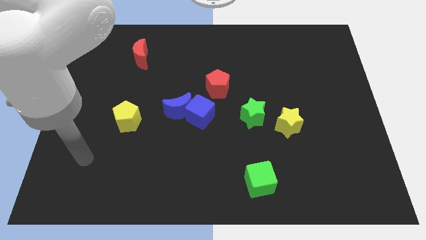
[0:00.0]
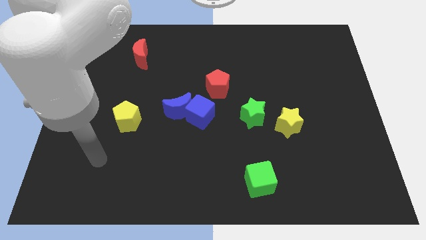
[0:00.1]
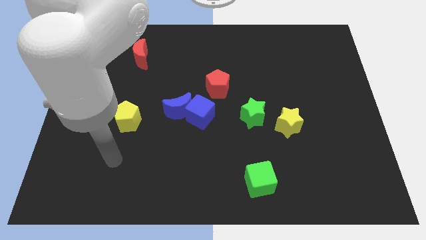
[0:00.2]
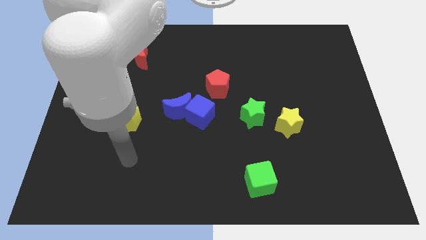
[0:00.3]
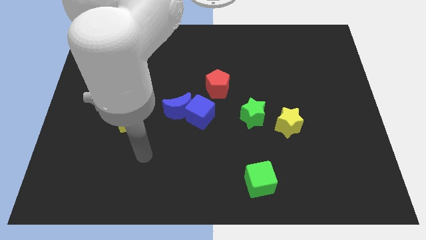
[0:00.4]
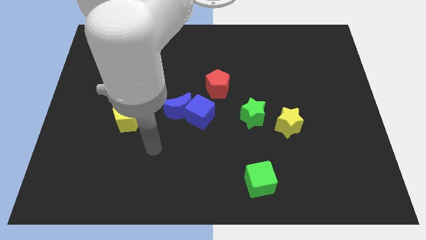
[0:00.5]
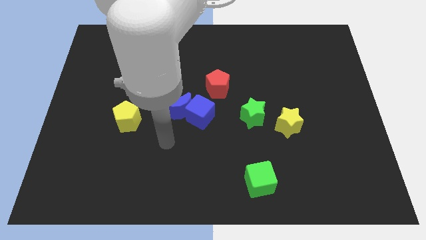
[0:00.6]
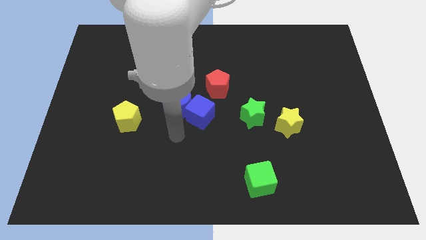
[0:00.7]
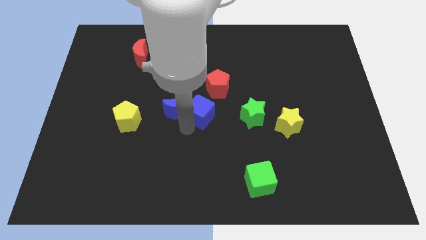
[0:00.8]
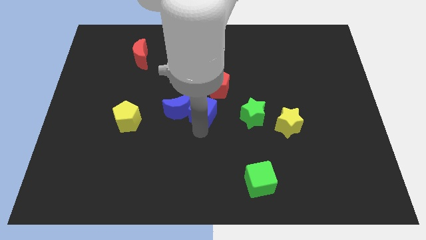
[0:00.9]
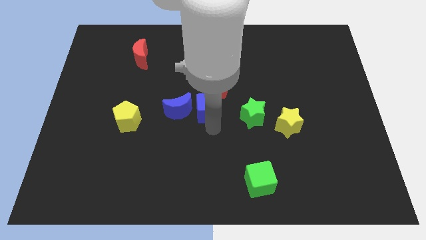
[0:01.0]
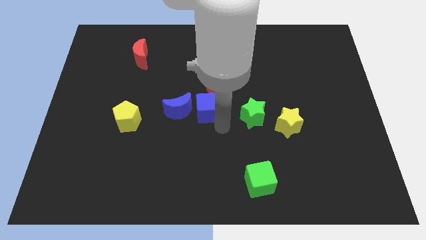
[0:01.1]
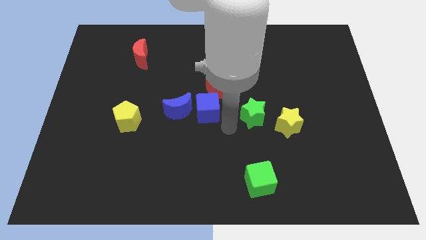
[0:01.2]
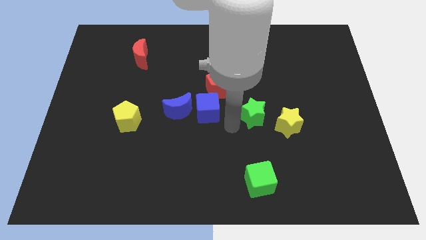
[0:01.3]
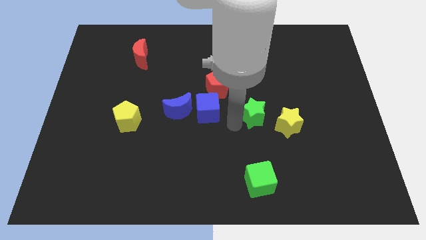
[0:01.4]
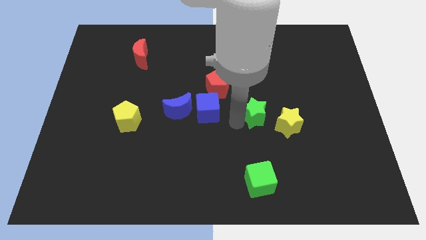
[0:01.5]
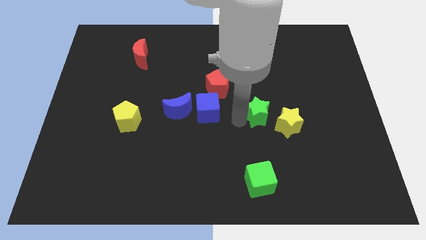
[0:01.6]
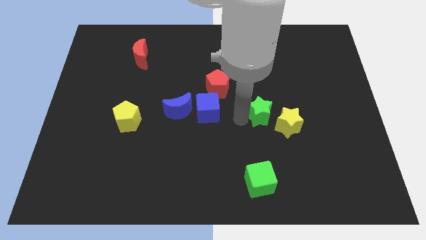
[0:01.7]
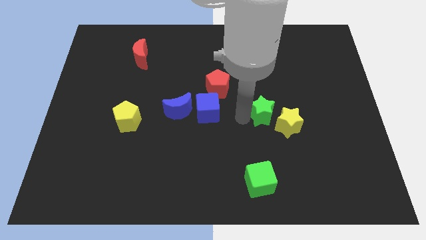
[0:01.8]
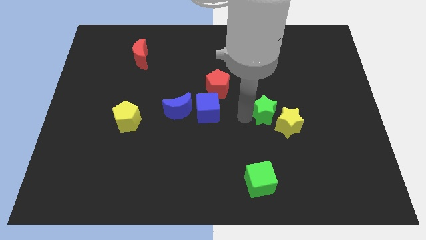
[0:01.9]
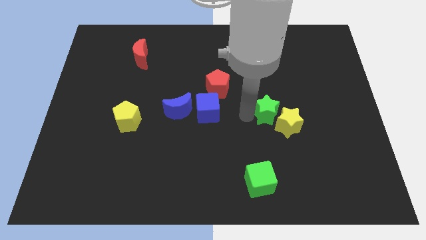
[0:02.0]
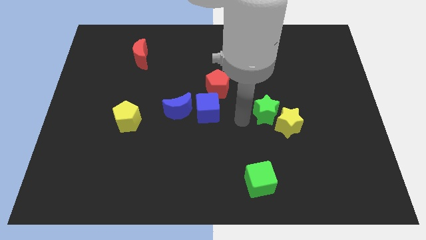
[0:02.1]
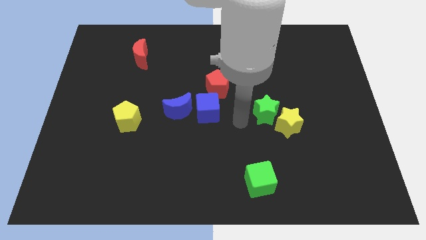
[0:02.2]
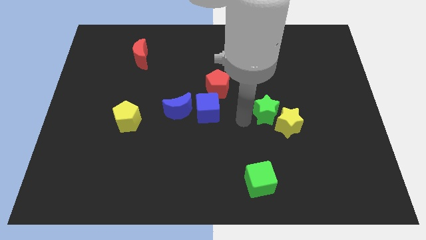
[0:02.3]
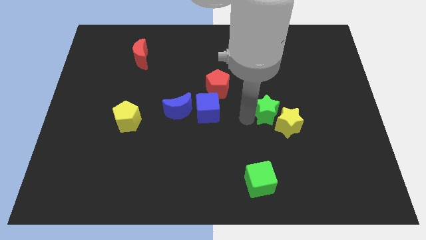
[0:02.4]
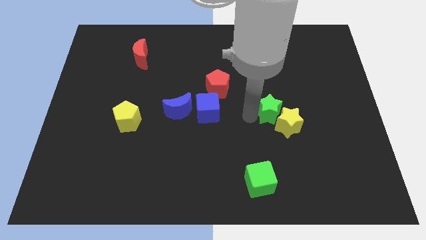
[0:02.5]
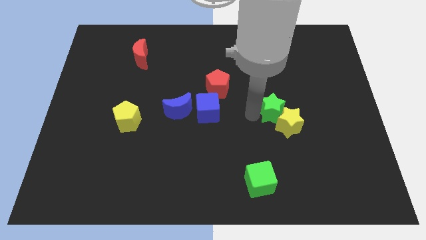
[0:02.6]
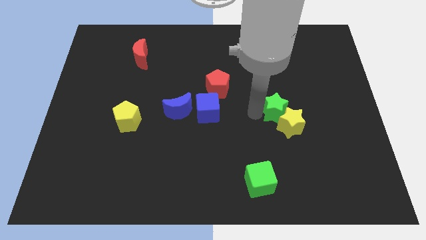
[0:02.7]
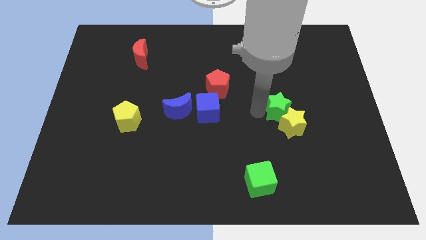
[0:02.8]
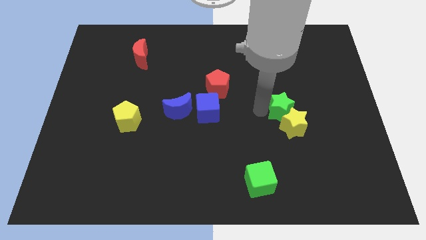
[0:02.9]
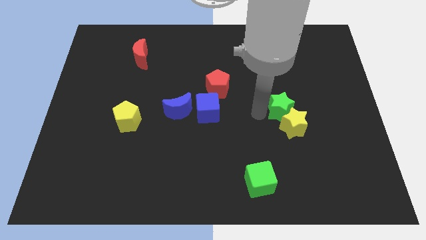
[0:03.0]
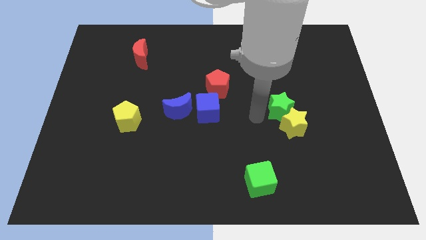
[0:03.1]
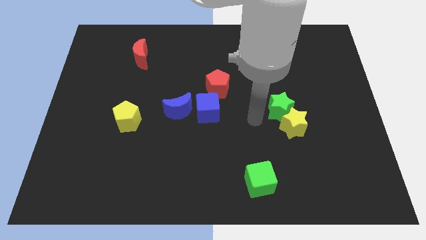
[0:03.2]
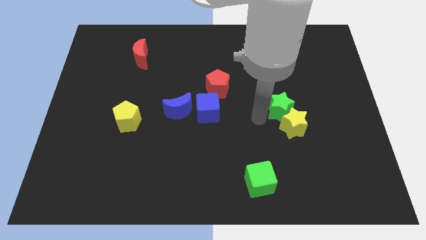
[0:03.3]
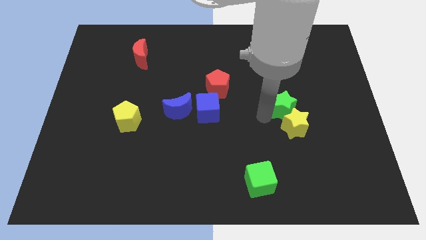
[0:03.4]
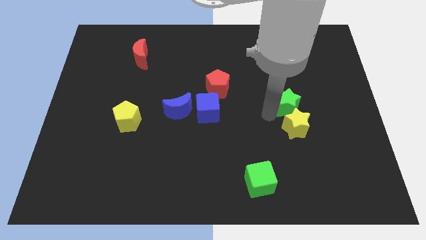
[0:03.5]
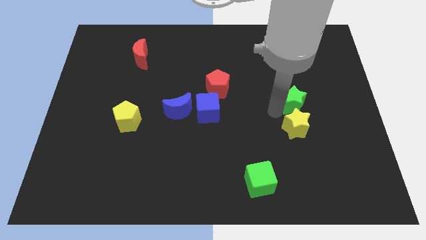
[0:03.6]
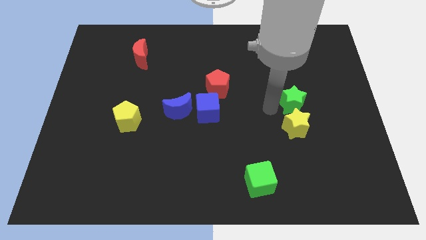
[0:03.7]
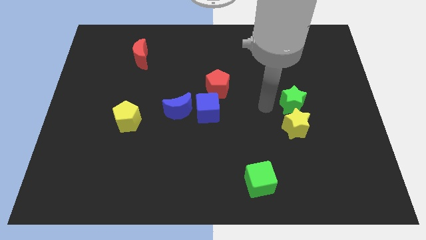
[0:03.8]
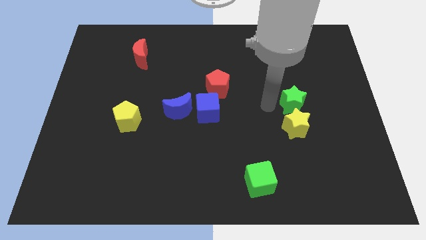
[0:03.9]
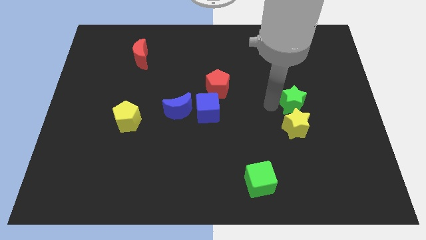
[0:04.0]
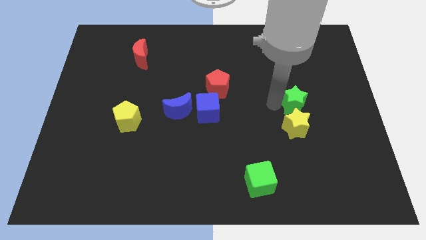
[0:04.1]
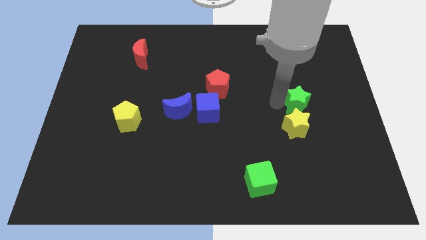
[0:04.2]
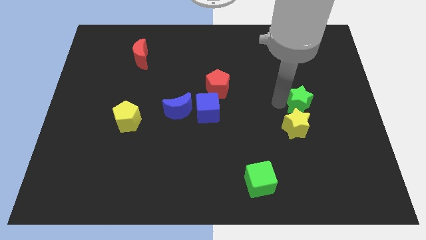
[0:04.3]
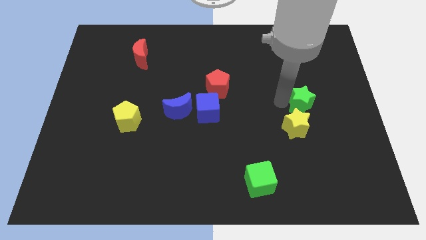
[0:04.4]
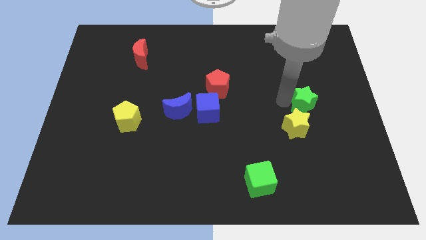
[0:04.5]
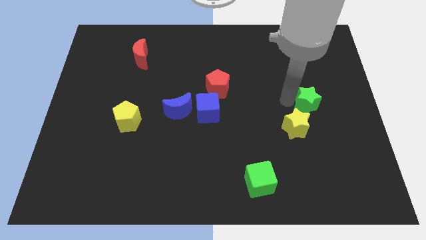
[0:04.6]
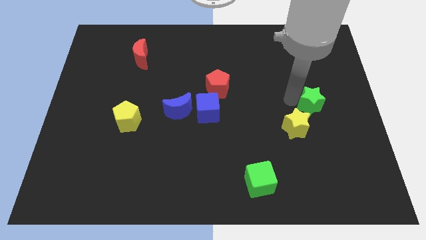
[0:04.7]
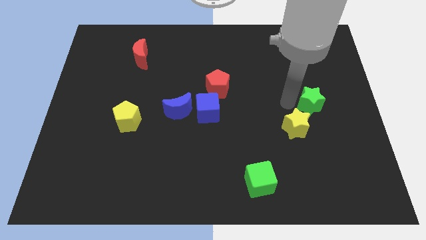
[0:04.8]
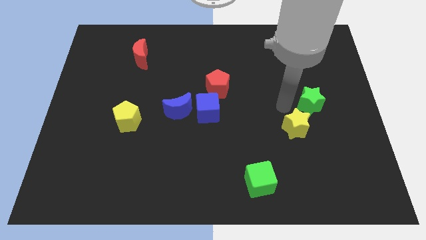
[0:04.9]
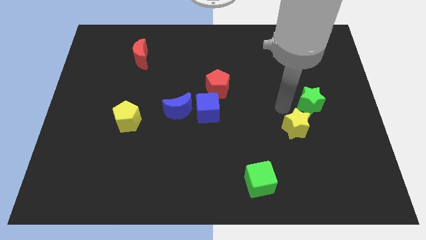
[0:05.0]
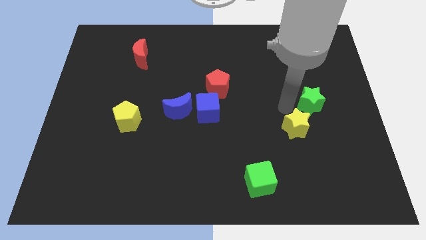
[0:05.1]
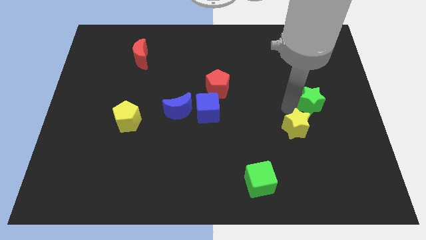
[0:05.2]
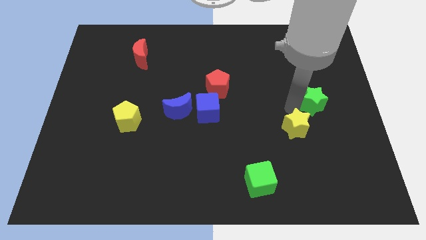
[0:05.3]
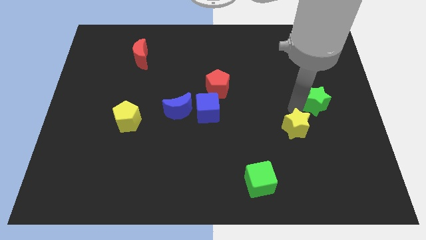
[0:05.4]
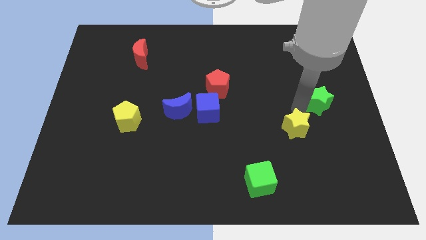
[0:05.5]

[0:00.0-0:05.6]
put the green star to the center right
